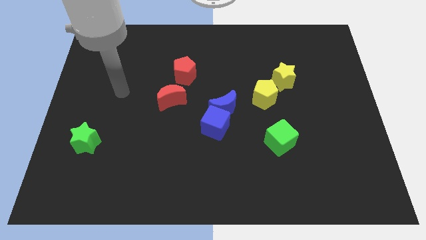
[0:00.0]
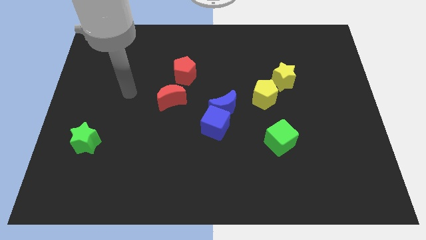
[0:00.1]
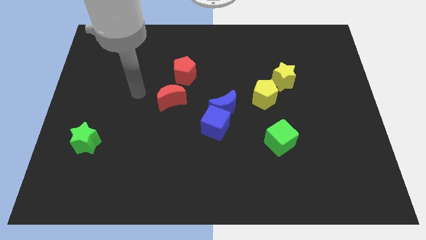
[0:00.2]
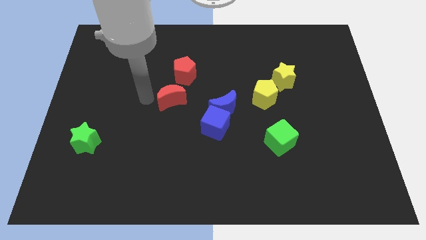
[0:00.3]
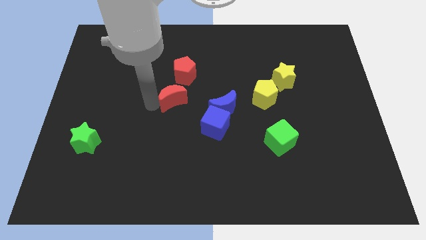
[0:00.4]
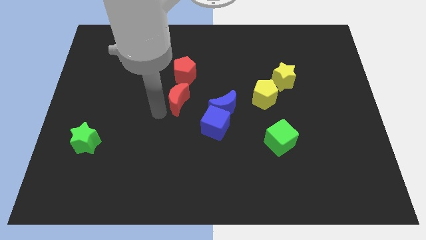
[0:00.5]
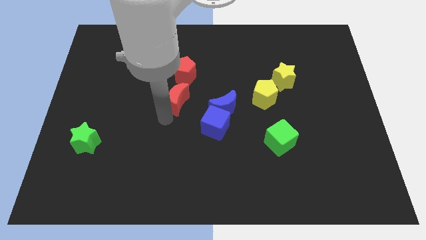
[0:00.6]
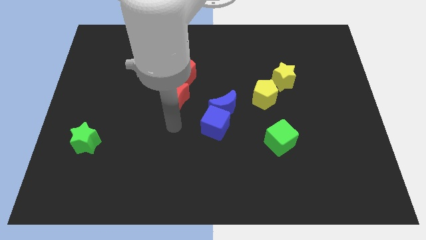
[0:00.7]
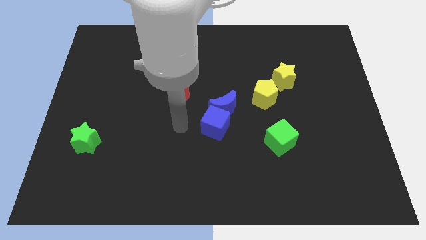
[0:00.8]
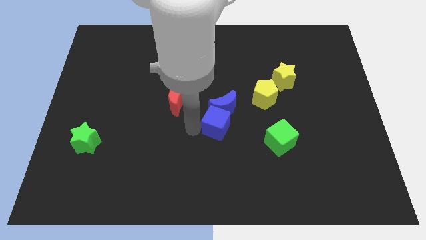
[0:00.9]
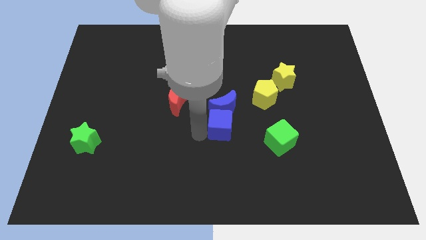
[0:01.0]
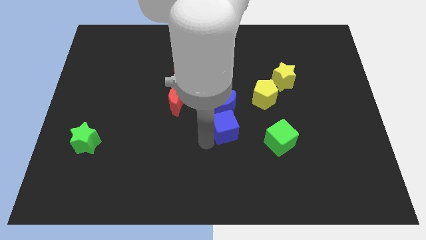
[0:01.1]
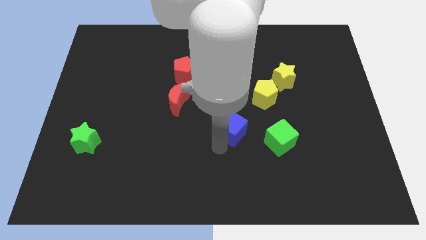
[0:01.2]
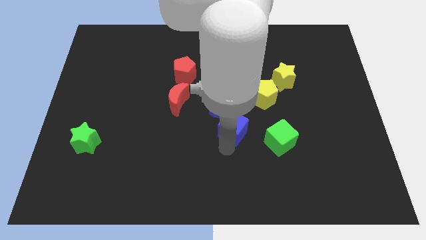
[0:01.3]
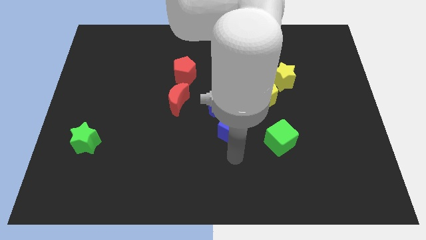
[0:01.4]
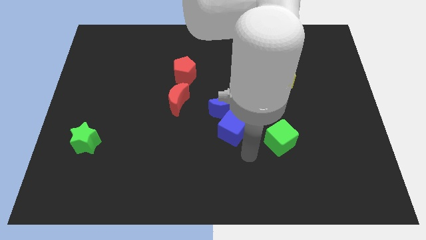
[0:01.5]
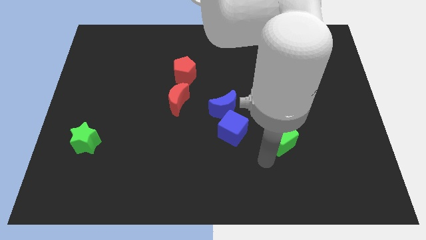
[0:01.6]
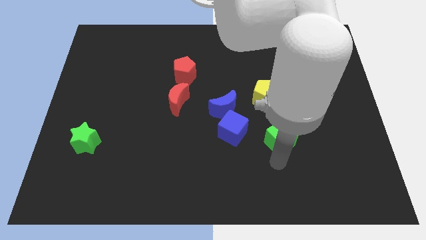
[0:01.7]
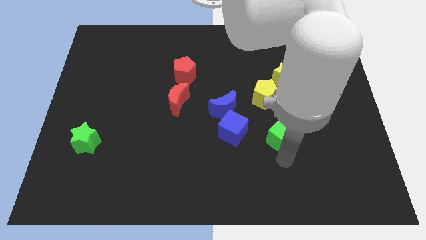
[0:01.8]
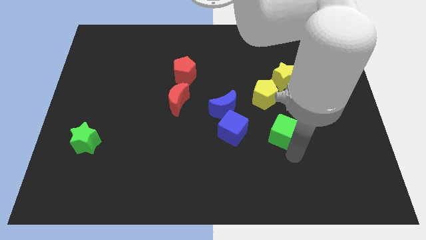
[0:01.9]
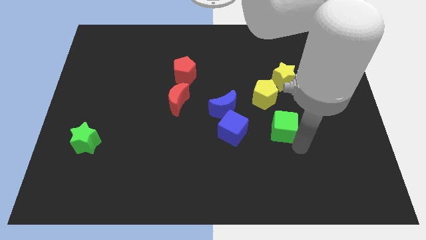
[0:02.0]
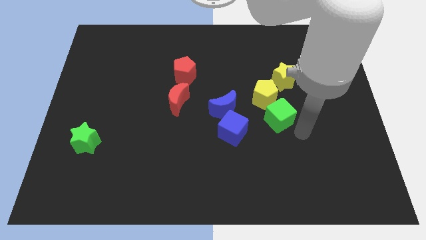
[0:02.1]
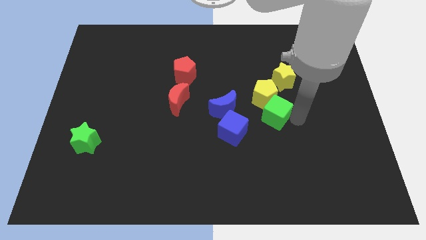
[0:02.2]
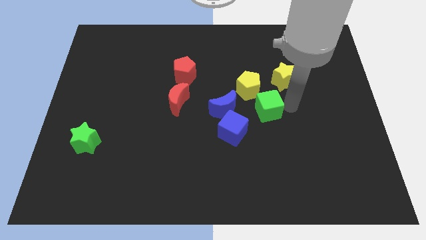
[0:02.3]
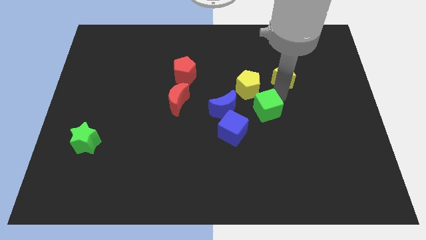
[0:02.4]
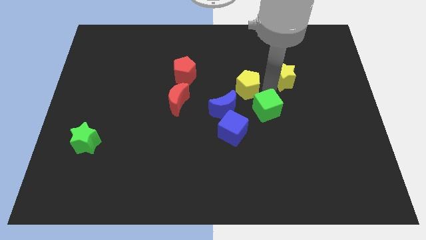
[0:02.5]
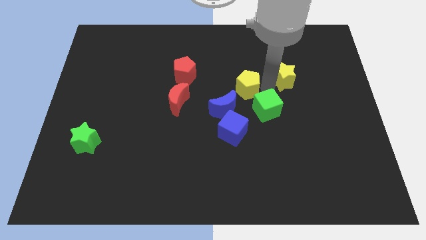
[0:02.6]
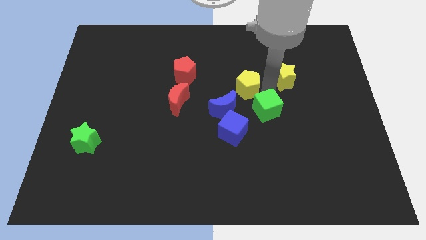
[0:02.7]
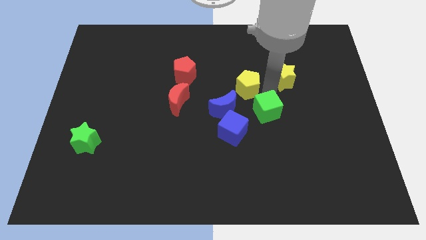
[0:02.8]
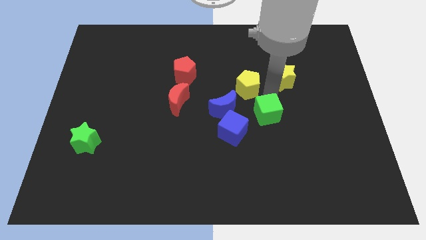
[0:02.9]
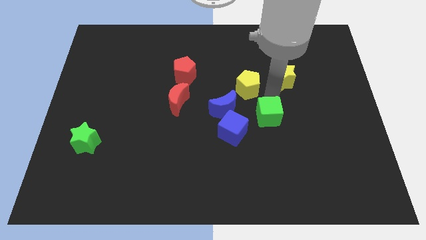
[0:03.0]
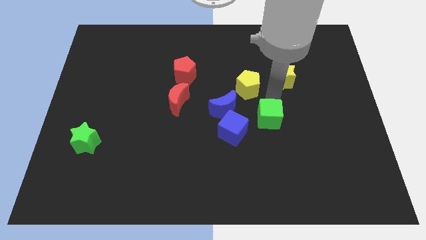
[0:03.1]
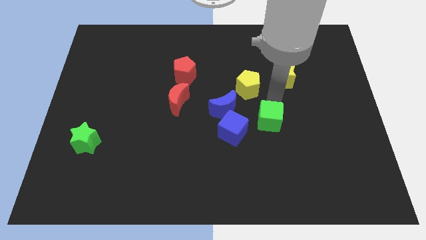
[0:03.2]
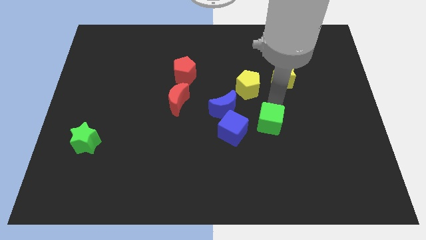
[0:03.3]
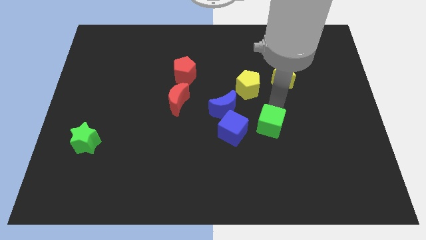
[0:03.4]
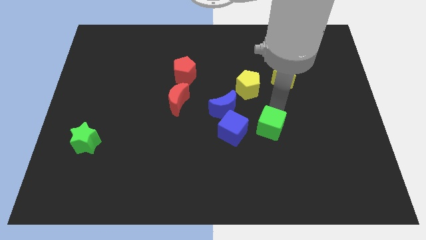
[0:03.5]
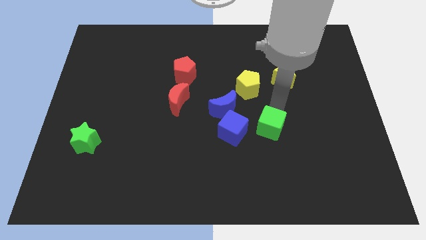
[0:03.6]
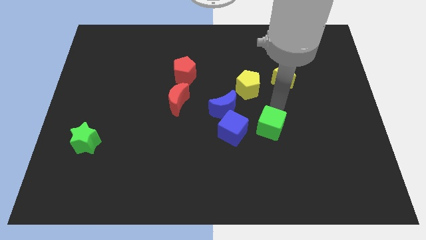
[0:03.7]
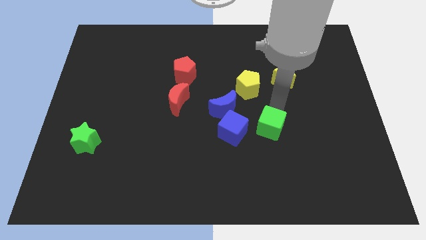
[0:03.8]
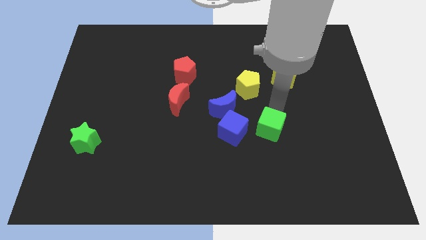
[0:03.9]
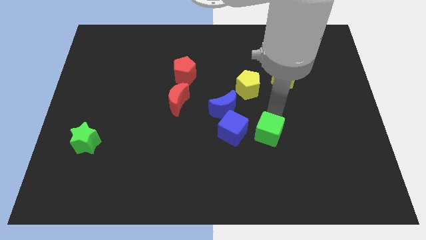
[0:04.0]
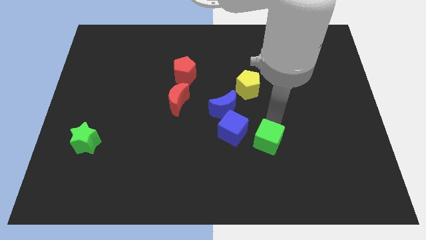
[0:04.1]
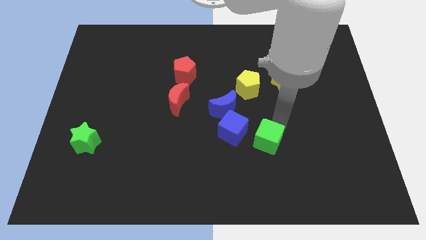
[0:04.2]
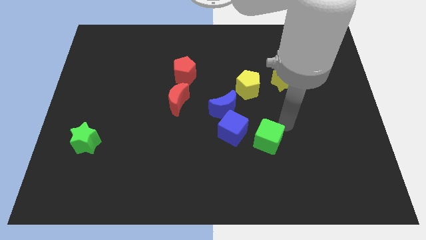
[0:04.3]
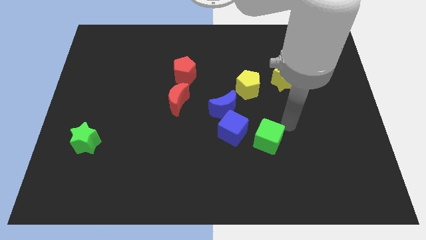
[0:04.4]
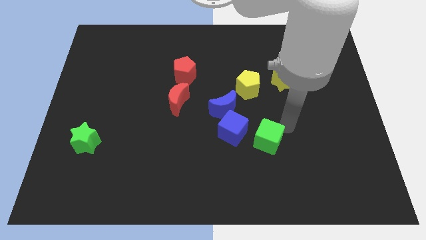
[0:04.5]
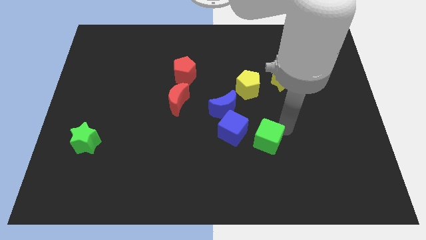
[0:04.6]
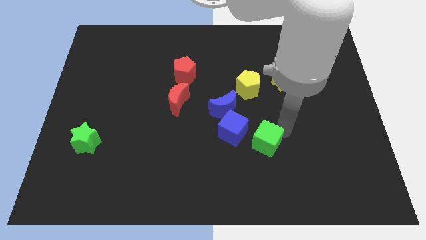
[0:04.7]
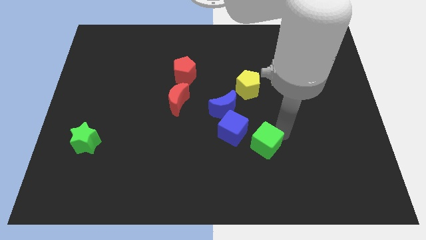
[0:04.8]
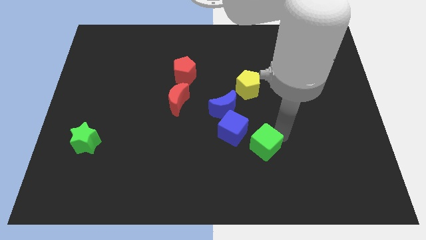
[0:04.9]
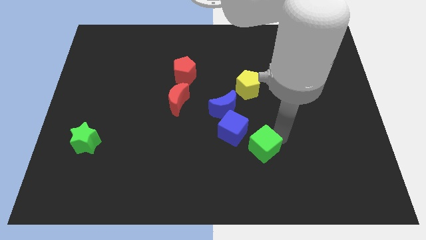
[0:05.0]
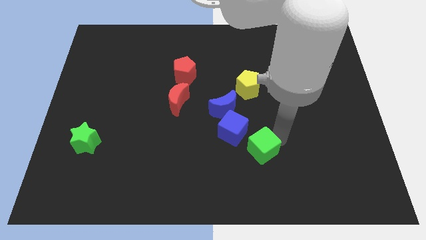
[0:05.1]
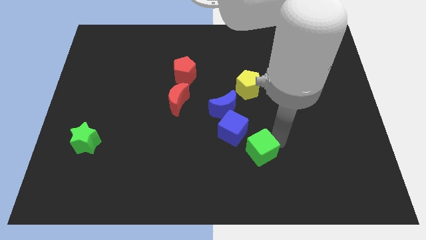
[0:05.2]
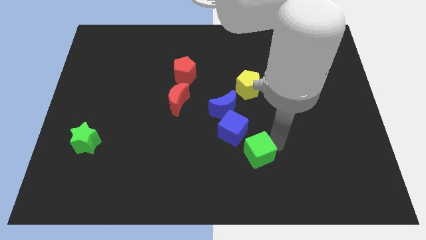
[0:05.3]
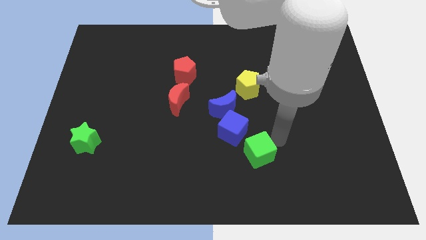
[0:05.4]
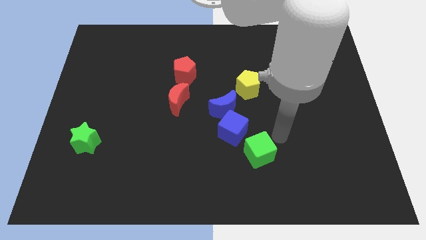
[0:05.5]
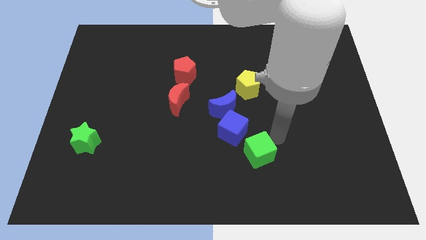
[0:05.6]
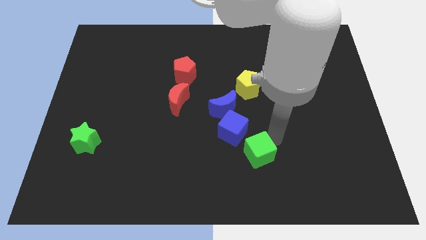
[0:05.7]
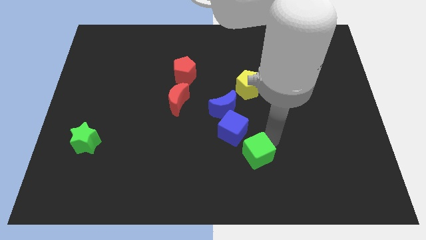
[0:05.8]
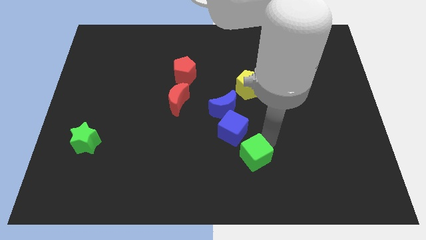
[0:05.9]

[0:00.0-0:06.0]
move the green cube to the bottom of the blue cube
